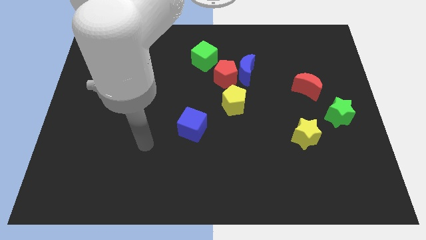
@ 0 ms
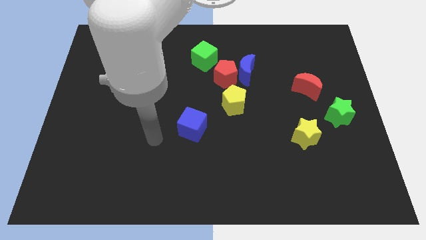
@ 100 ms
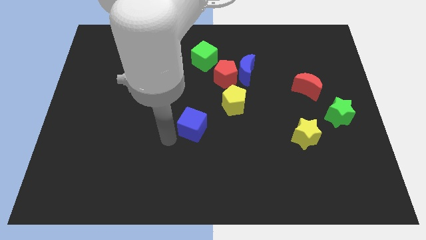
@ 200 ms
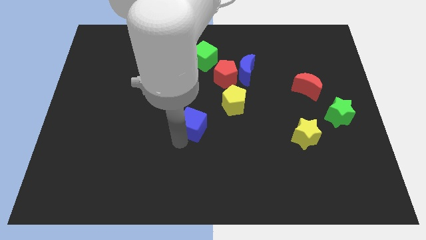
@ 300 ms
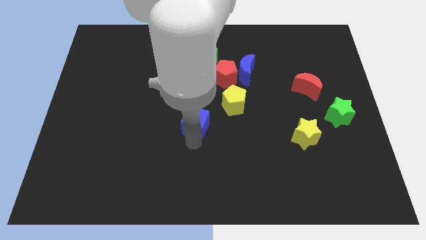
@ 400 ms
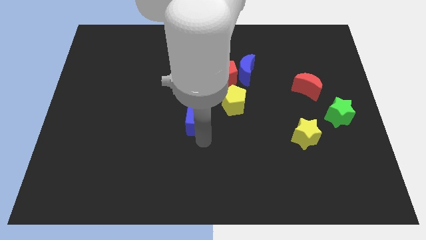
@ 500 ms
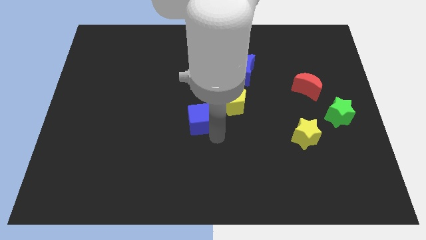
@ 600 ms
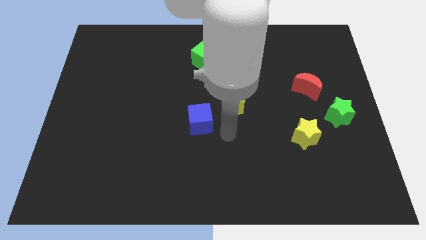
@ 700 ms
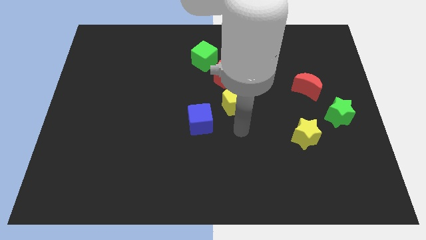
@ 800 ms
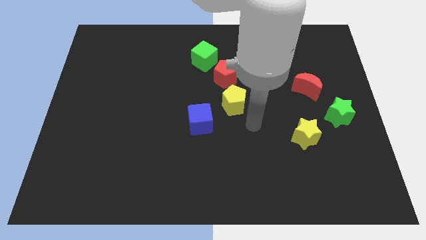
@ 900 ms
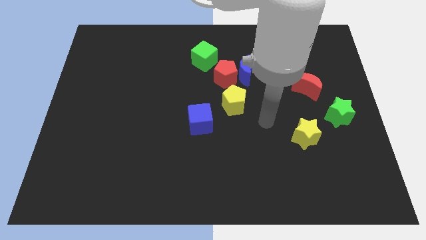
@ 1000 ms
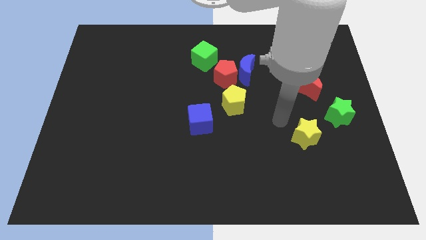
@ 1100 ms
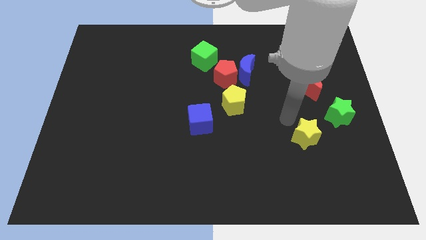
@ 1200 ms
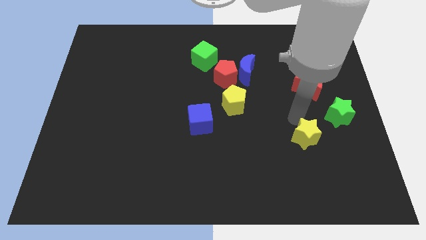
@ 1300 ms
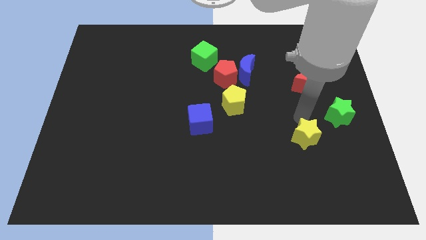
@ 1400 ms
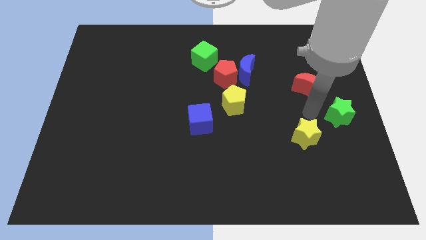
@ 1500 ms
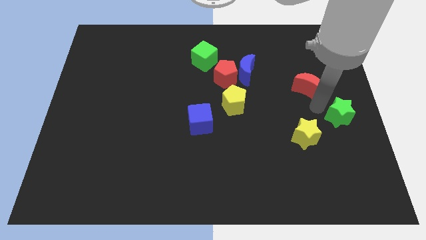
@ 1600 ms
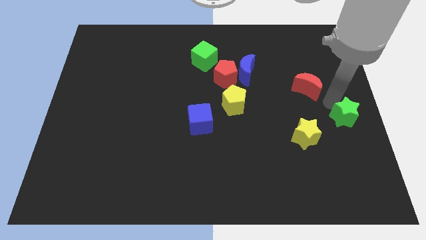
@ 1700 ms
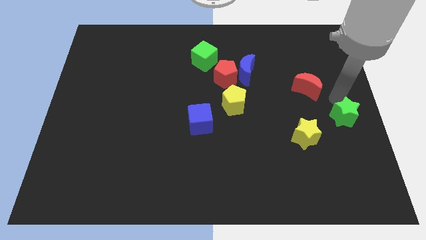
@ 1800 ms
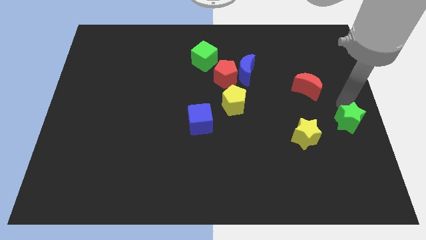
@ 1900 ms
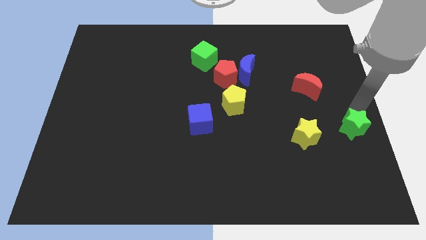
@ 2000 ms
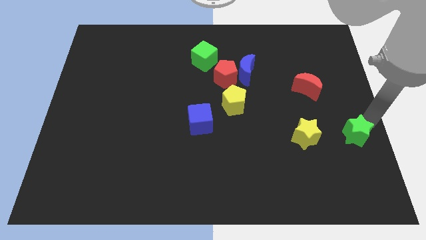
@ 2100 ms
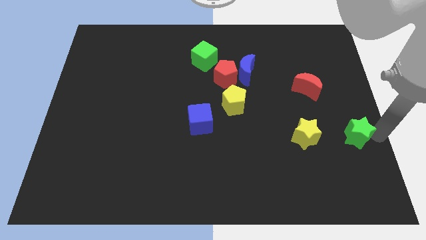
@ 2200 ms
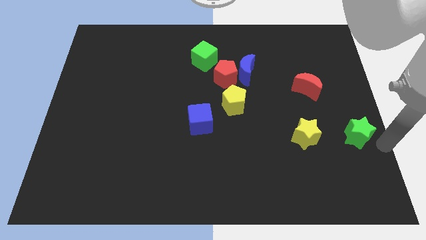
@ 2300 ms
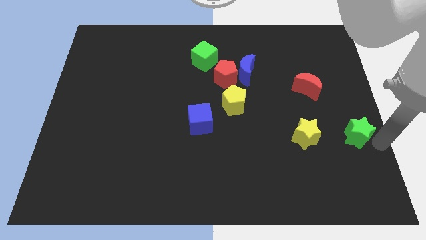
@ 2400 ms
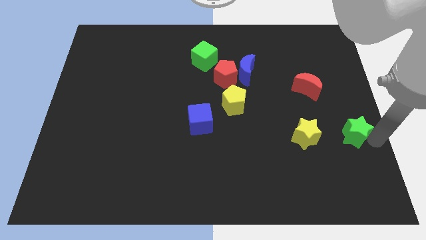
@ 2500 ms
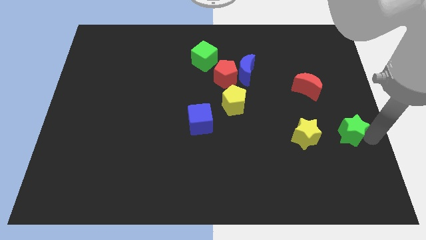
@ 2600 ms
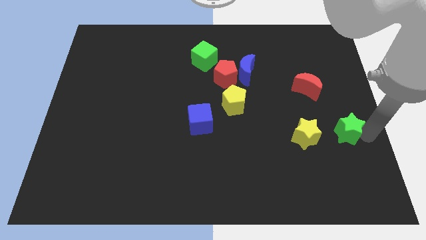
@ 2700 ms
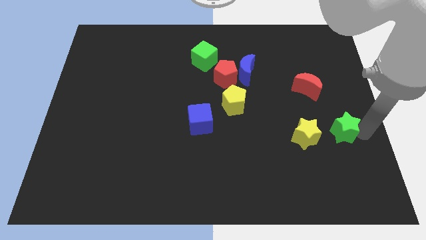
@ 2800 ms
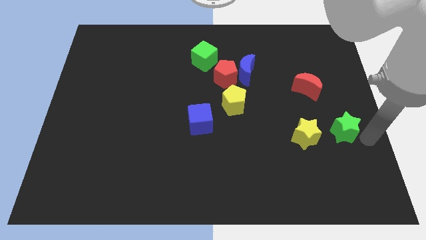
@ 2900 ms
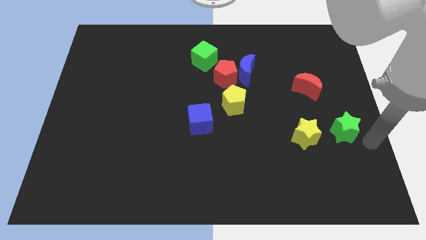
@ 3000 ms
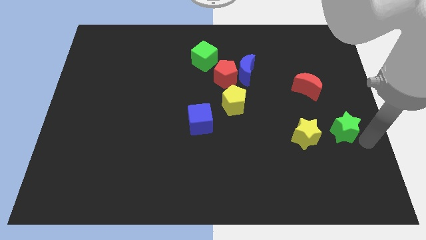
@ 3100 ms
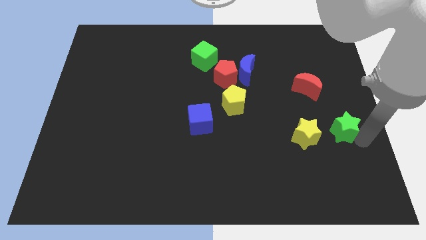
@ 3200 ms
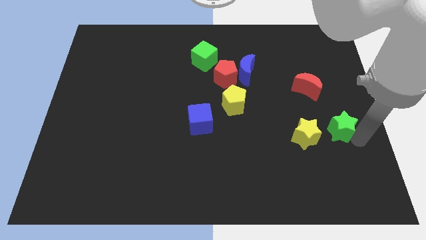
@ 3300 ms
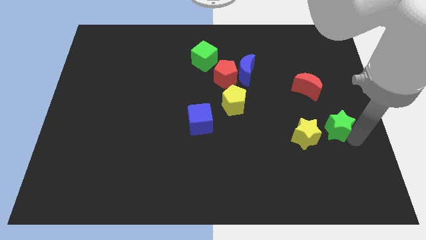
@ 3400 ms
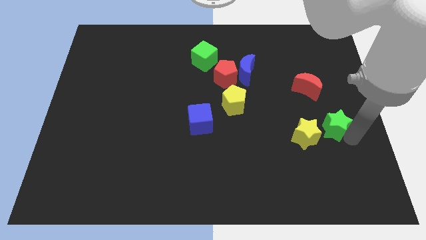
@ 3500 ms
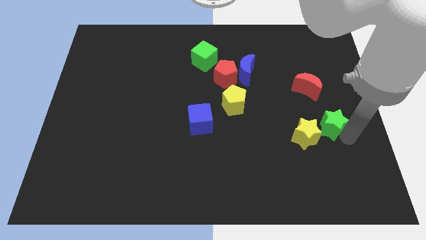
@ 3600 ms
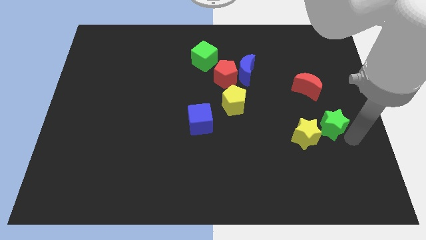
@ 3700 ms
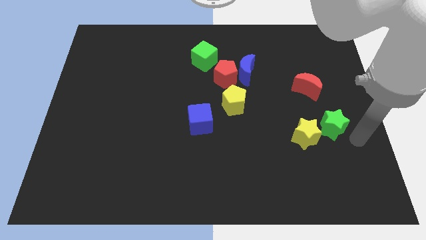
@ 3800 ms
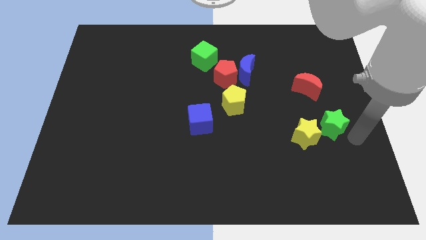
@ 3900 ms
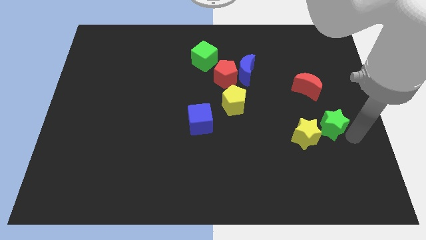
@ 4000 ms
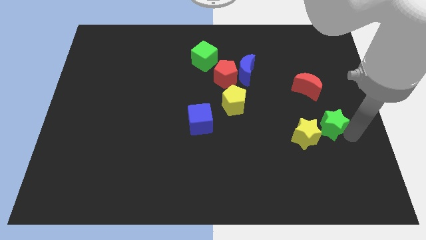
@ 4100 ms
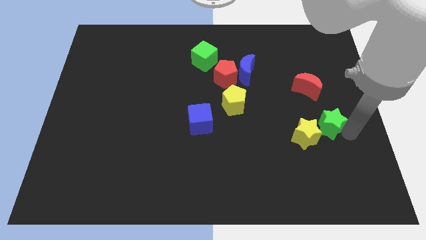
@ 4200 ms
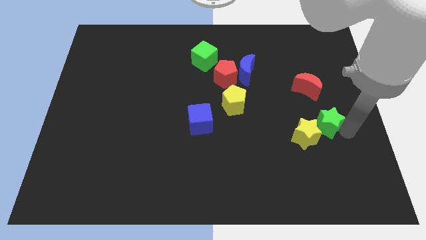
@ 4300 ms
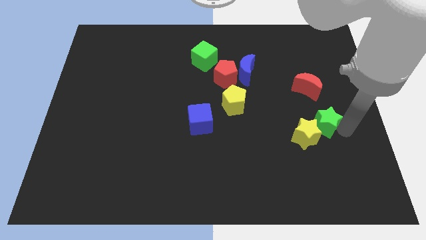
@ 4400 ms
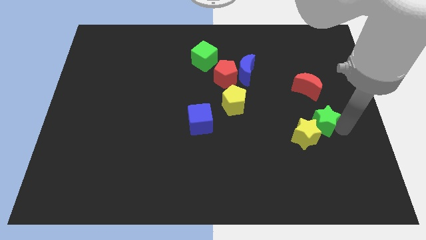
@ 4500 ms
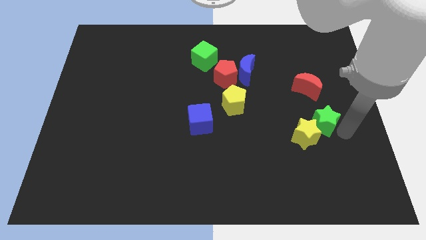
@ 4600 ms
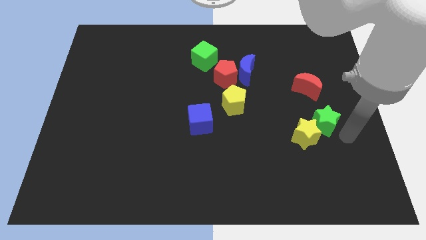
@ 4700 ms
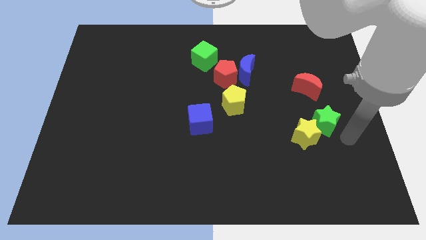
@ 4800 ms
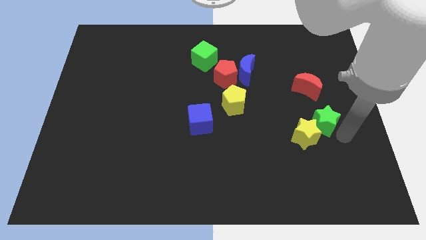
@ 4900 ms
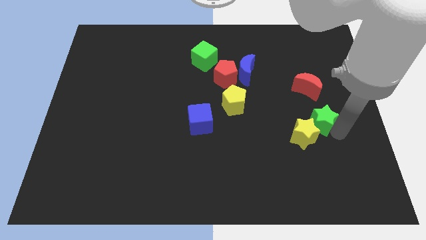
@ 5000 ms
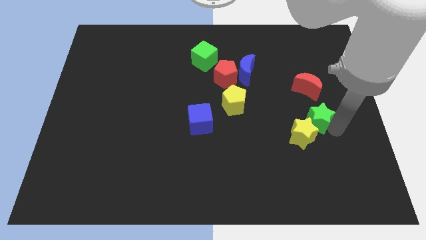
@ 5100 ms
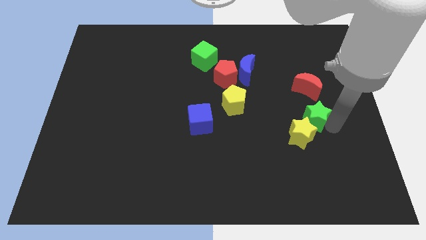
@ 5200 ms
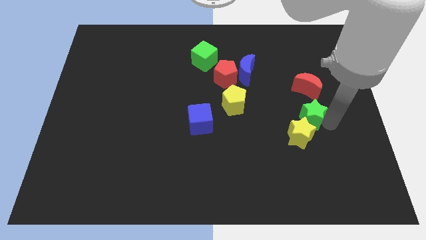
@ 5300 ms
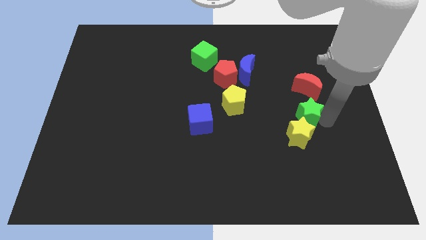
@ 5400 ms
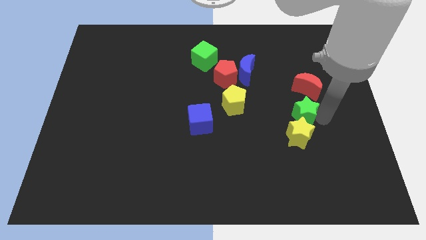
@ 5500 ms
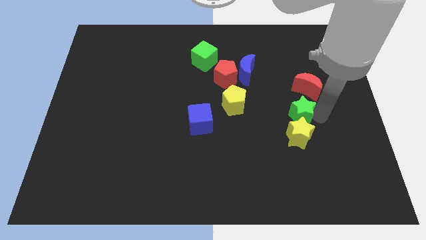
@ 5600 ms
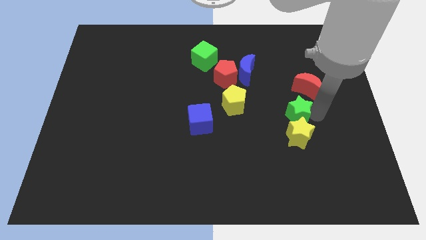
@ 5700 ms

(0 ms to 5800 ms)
slide the green star to the top left of the yellow star

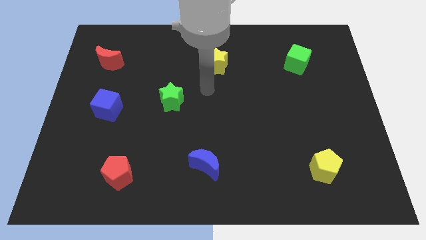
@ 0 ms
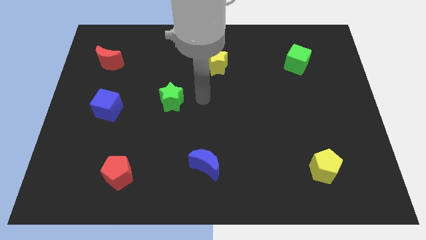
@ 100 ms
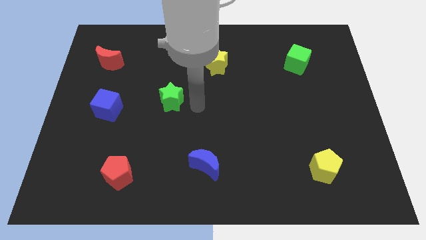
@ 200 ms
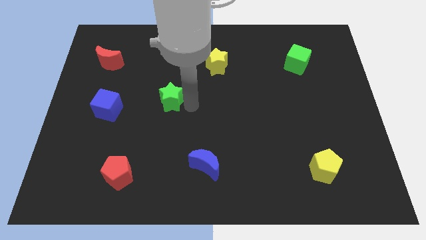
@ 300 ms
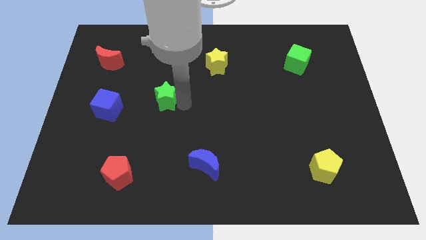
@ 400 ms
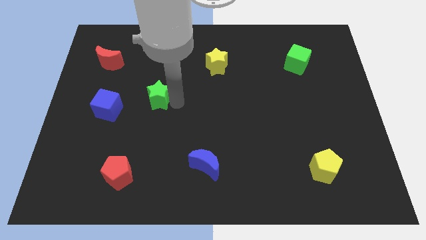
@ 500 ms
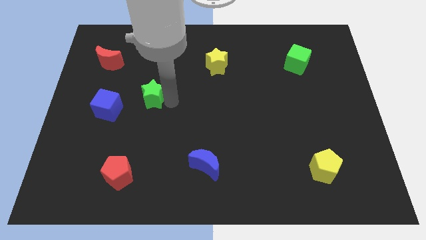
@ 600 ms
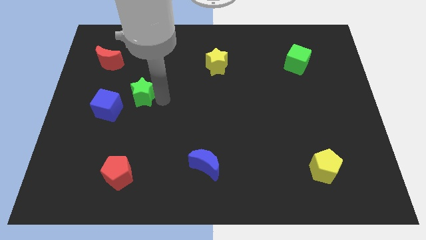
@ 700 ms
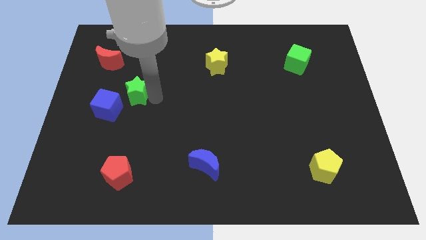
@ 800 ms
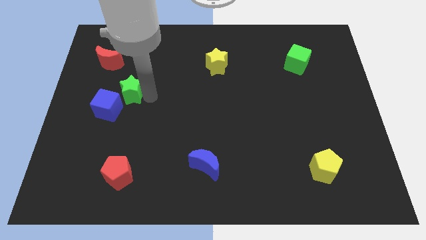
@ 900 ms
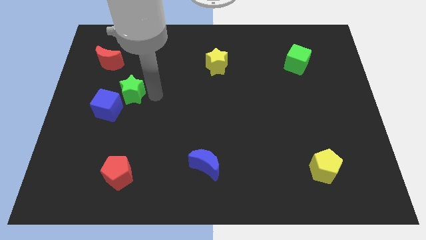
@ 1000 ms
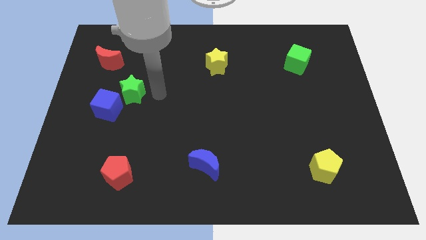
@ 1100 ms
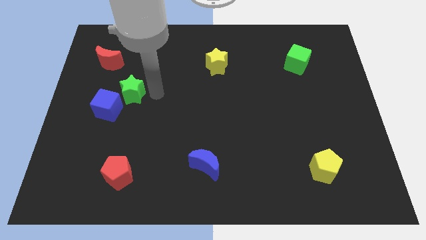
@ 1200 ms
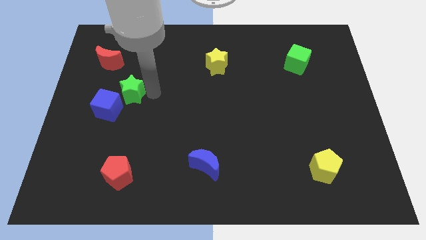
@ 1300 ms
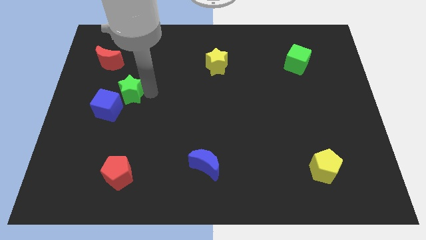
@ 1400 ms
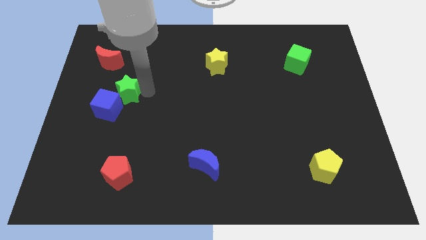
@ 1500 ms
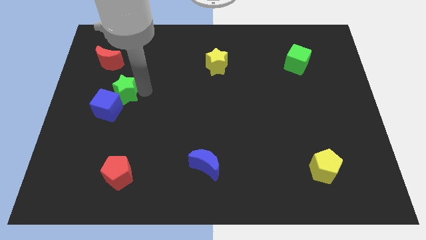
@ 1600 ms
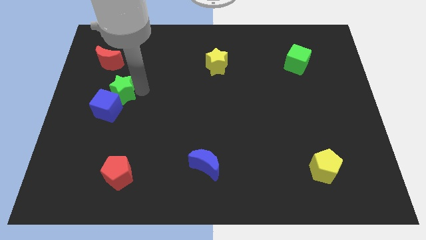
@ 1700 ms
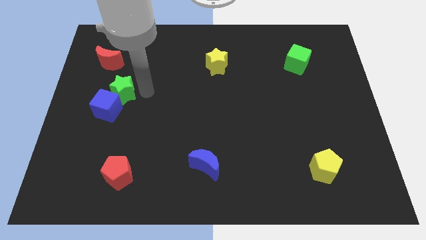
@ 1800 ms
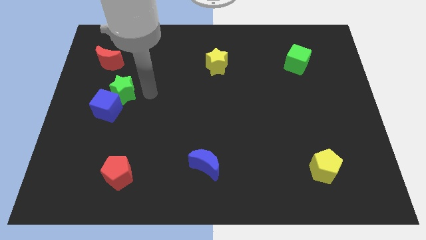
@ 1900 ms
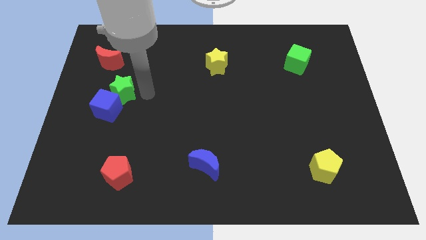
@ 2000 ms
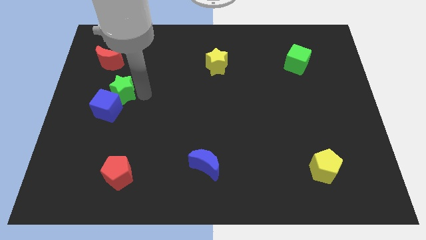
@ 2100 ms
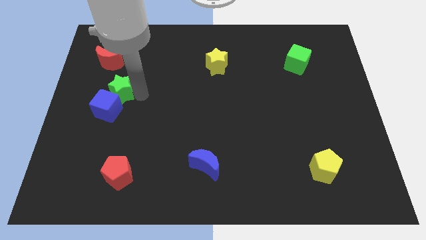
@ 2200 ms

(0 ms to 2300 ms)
move the green star to the bottom side of the red moon
